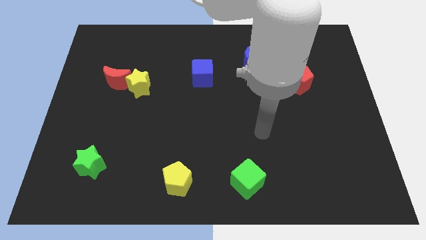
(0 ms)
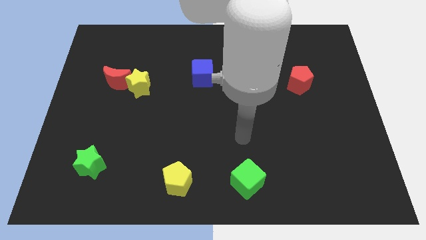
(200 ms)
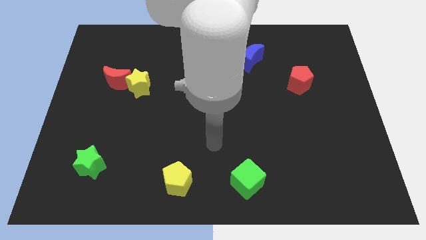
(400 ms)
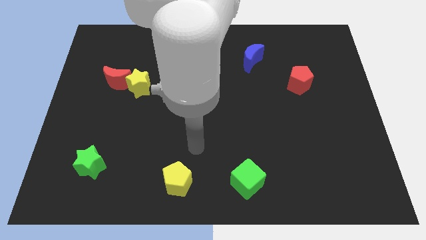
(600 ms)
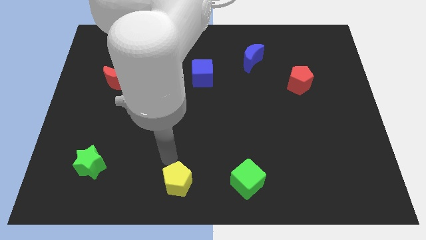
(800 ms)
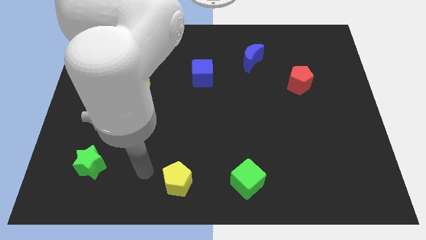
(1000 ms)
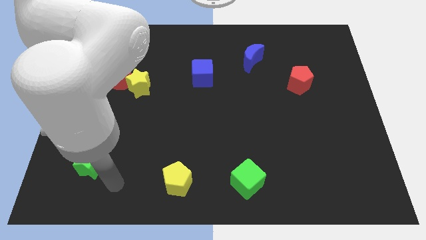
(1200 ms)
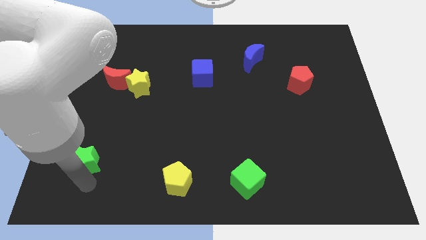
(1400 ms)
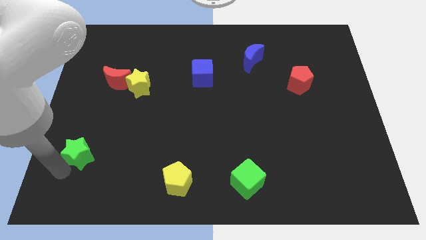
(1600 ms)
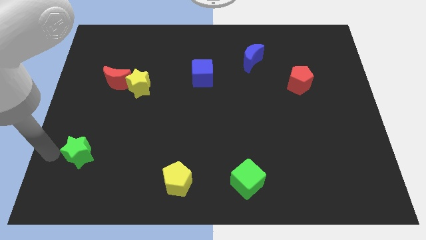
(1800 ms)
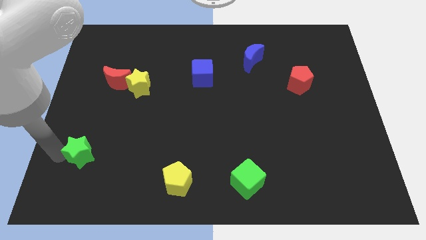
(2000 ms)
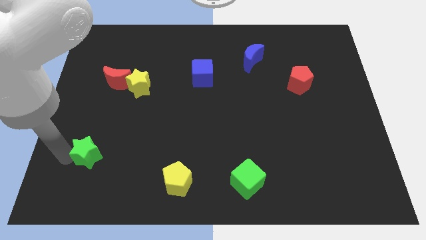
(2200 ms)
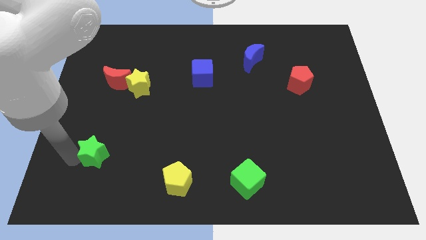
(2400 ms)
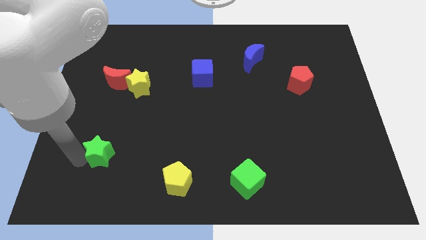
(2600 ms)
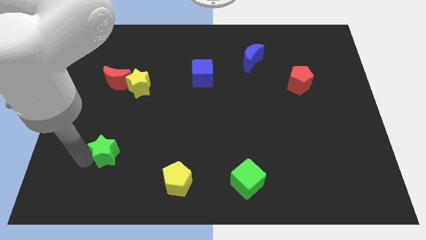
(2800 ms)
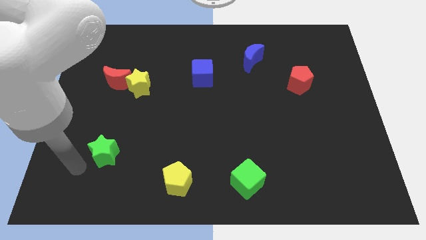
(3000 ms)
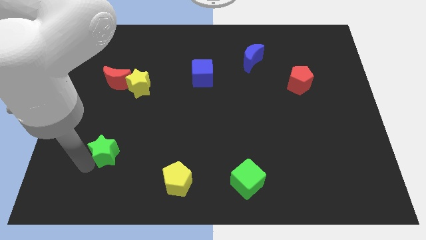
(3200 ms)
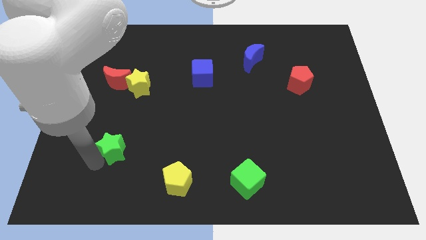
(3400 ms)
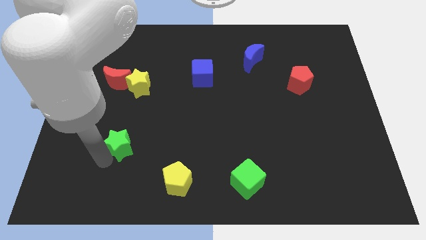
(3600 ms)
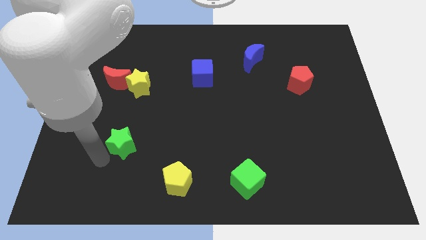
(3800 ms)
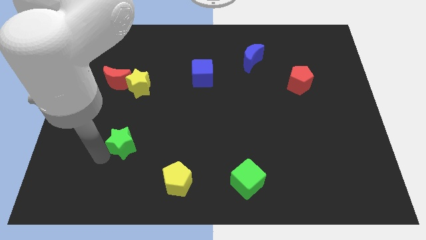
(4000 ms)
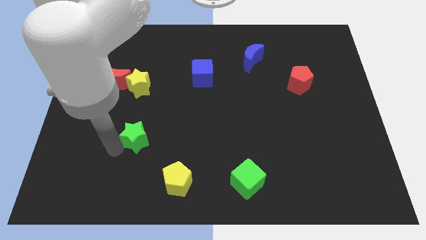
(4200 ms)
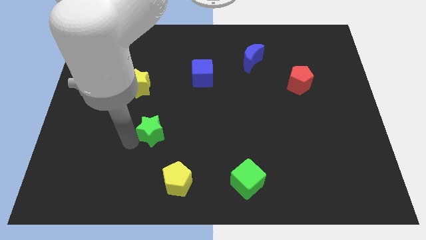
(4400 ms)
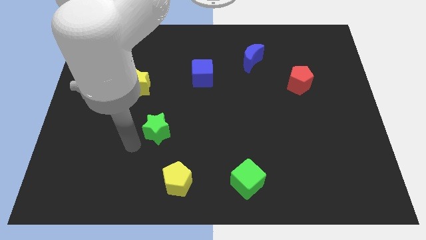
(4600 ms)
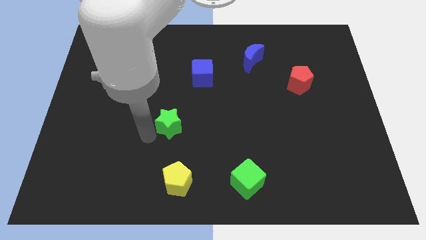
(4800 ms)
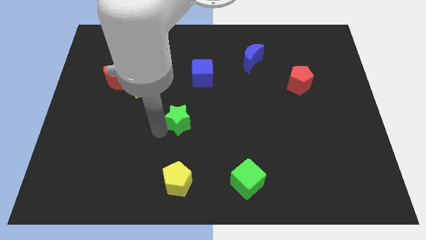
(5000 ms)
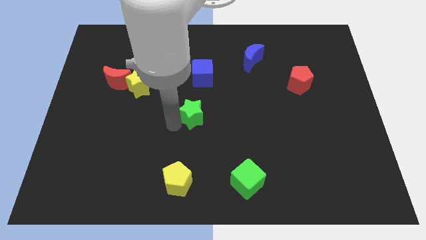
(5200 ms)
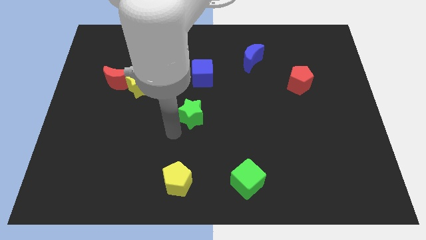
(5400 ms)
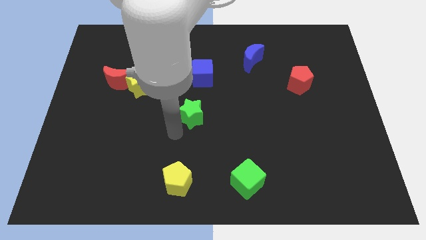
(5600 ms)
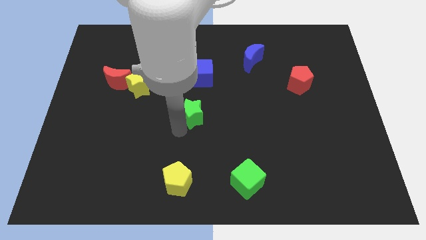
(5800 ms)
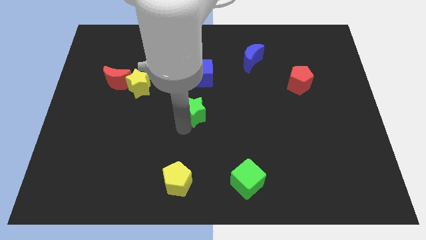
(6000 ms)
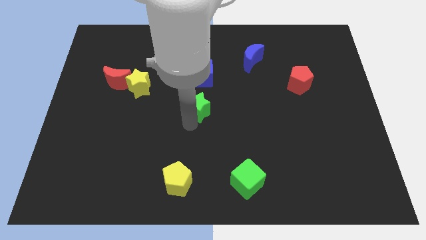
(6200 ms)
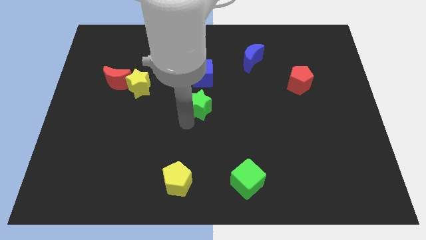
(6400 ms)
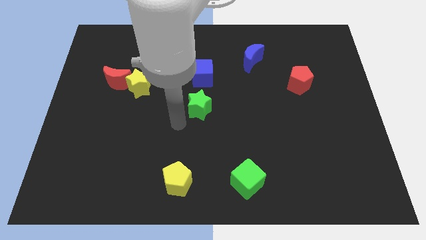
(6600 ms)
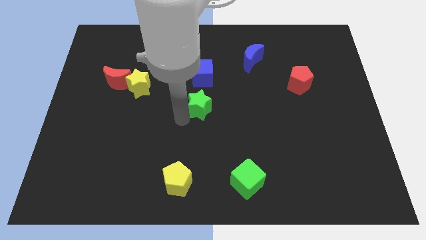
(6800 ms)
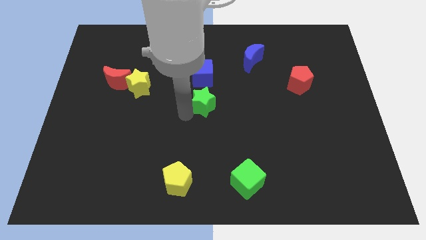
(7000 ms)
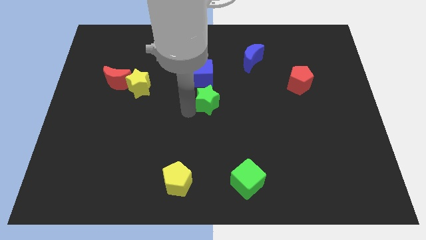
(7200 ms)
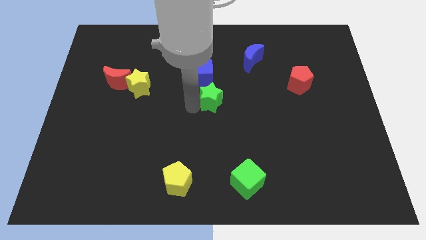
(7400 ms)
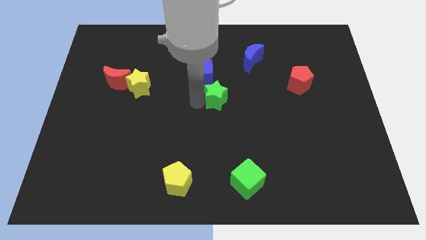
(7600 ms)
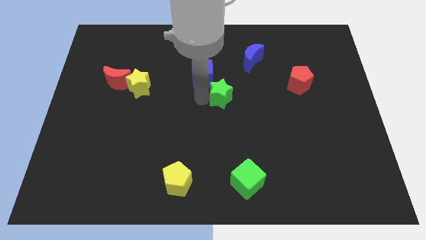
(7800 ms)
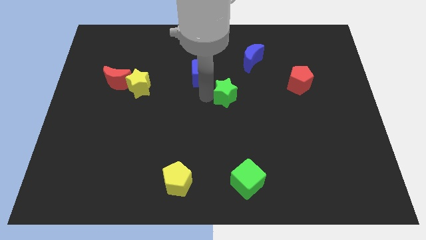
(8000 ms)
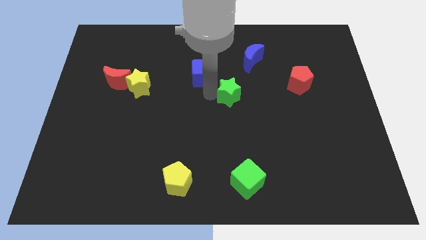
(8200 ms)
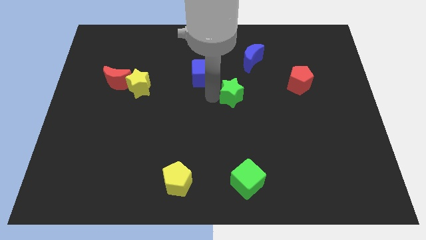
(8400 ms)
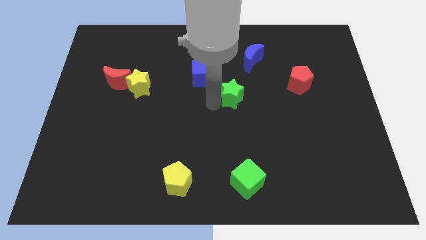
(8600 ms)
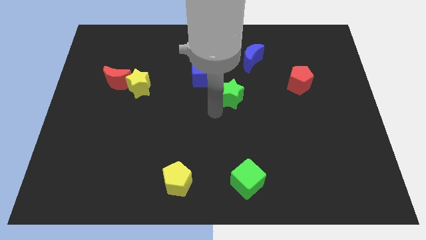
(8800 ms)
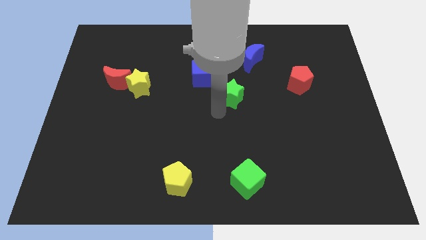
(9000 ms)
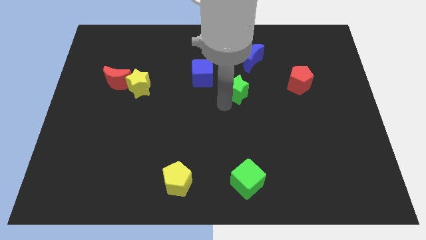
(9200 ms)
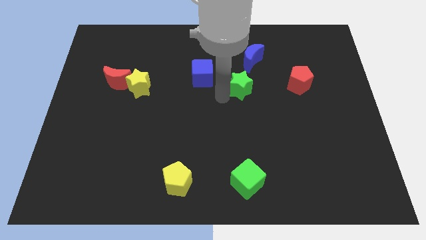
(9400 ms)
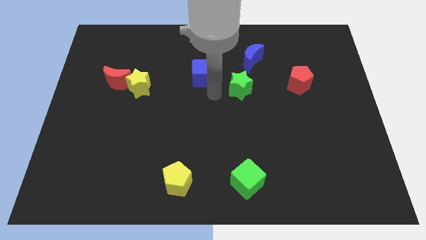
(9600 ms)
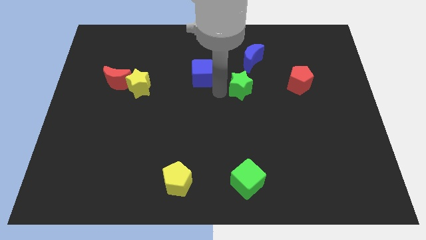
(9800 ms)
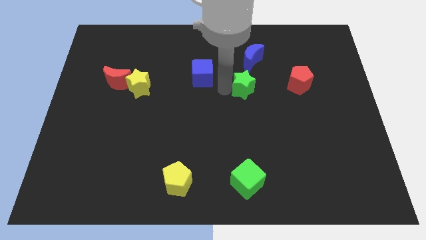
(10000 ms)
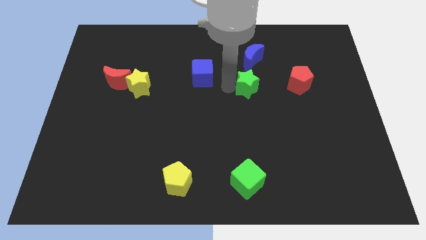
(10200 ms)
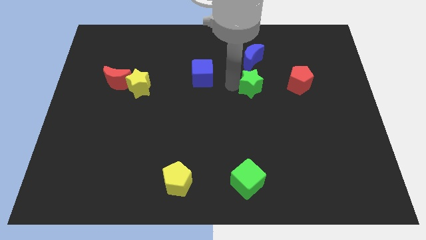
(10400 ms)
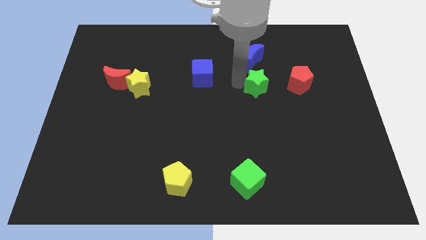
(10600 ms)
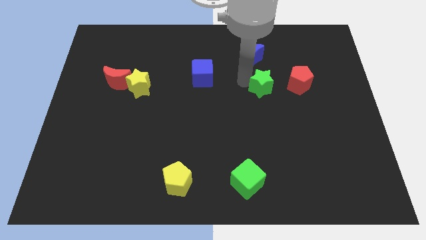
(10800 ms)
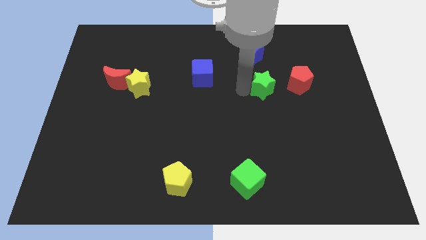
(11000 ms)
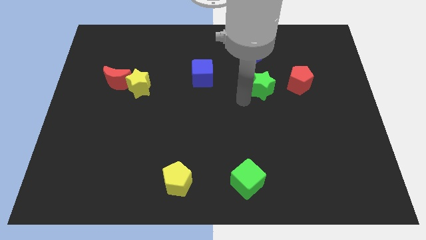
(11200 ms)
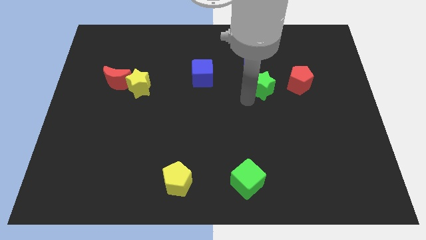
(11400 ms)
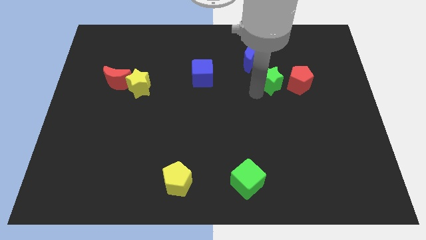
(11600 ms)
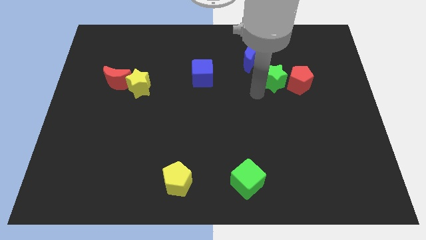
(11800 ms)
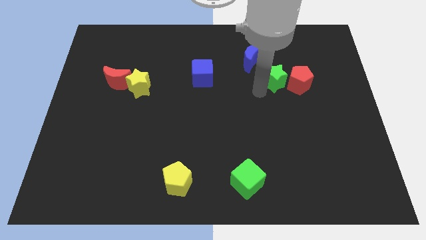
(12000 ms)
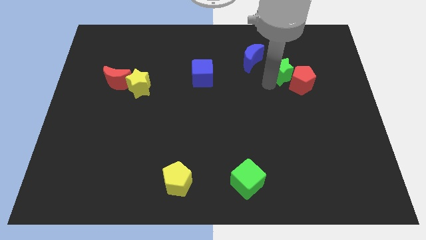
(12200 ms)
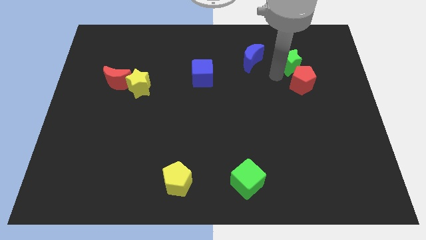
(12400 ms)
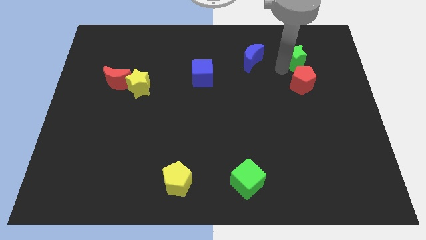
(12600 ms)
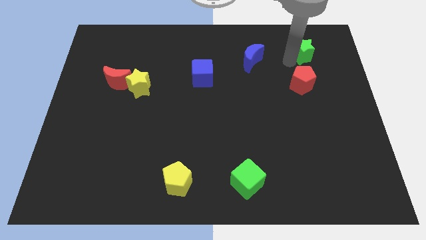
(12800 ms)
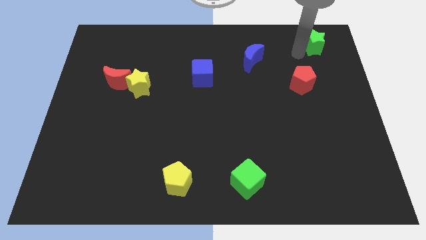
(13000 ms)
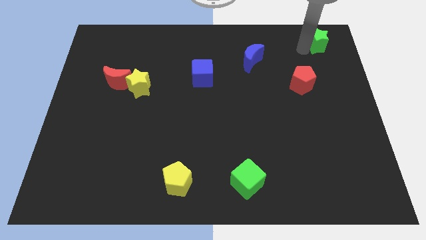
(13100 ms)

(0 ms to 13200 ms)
slide the green star to the upper right corner
